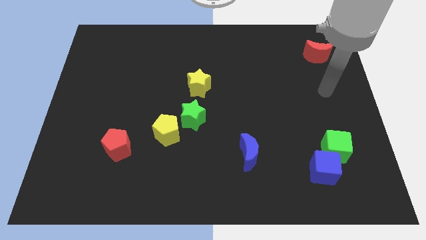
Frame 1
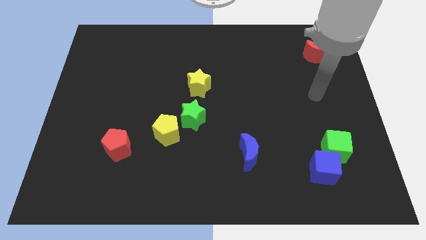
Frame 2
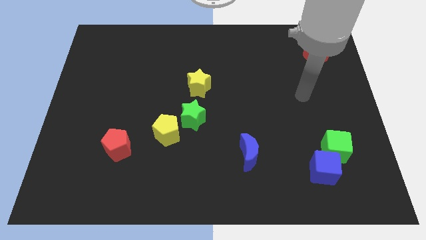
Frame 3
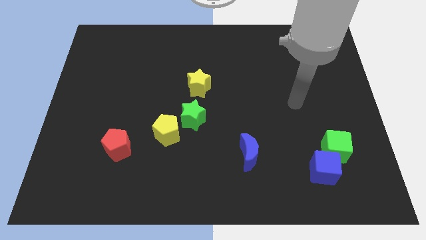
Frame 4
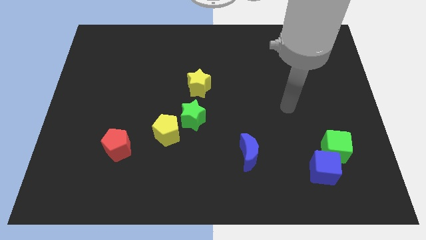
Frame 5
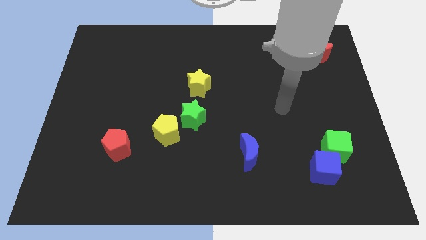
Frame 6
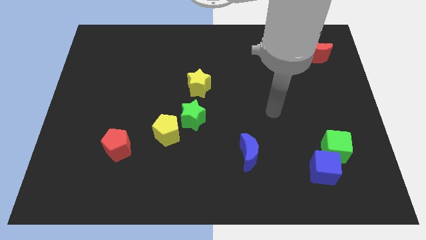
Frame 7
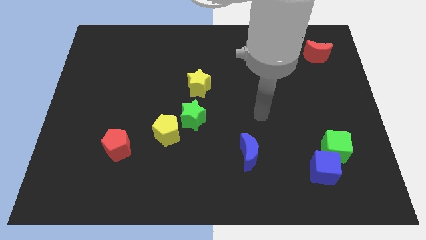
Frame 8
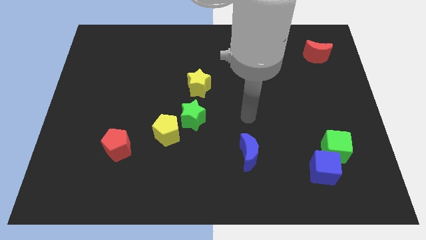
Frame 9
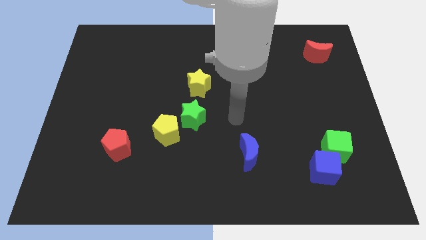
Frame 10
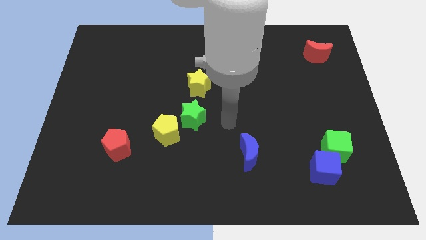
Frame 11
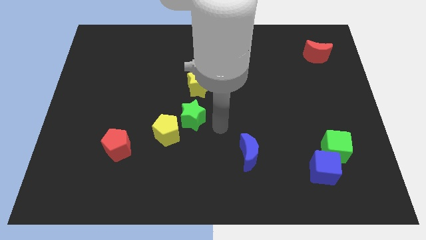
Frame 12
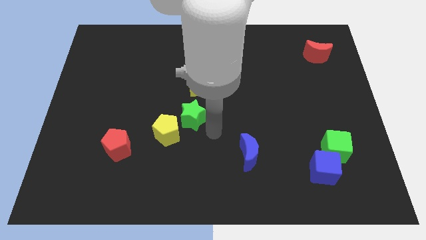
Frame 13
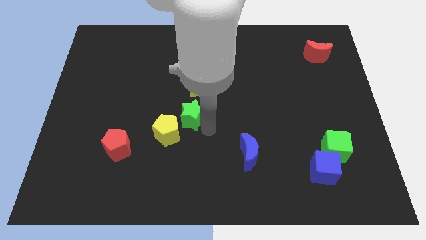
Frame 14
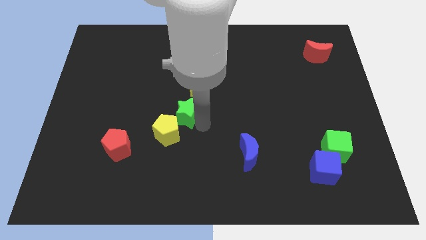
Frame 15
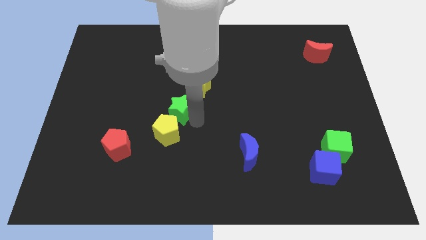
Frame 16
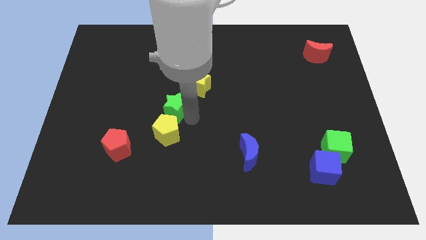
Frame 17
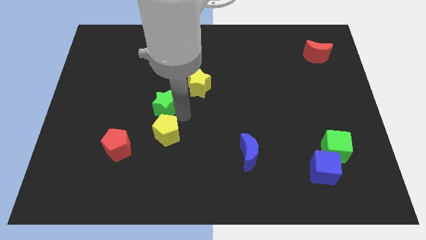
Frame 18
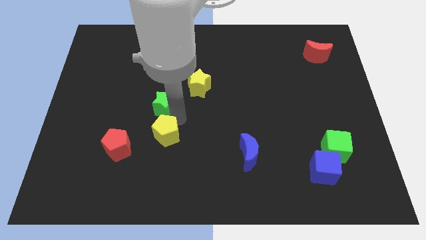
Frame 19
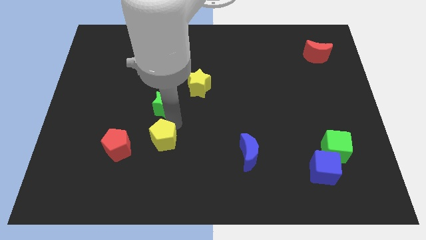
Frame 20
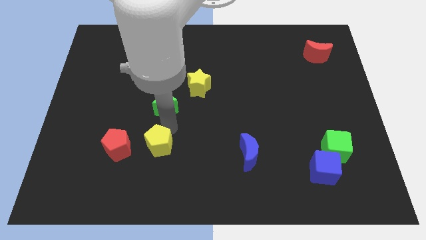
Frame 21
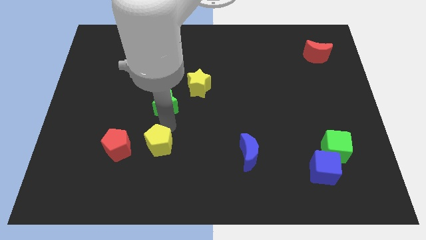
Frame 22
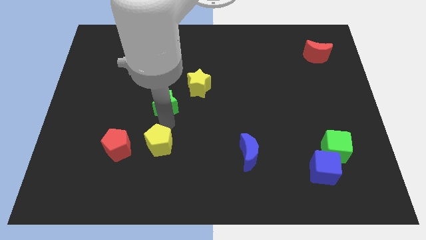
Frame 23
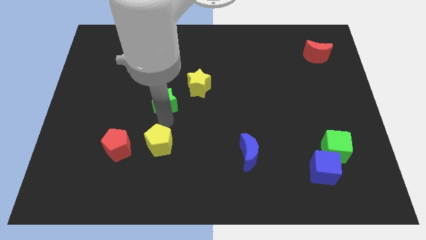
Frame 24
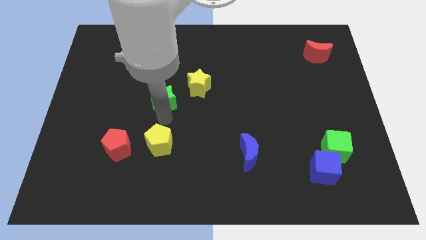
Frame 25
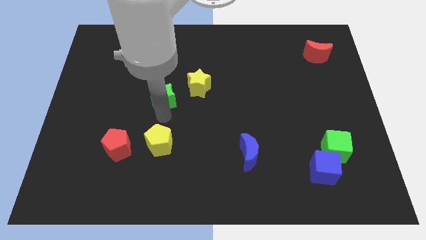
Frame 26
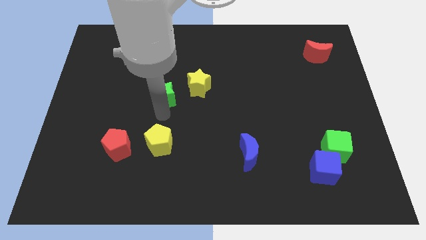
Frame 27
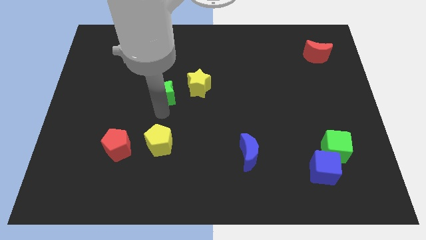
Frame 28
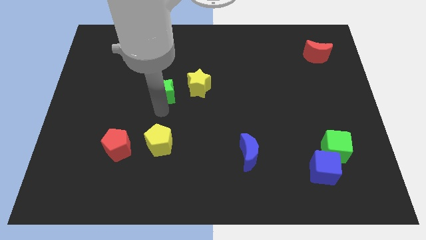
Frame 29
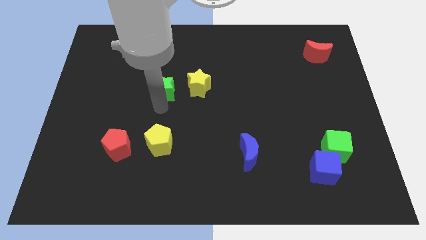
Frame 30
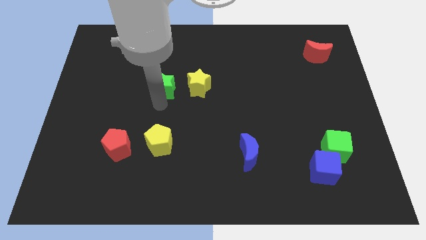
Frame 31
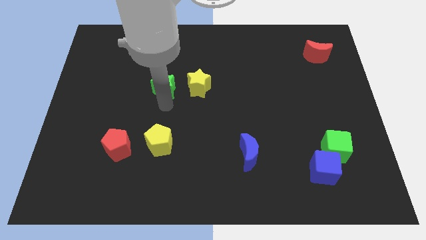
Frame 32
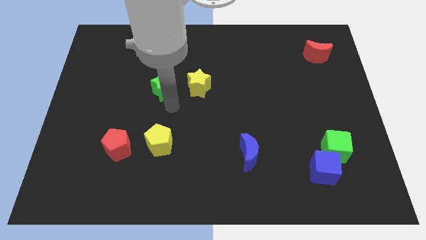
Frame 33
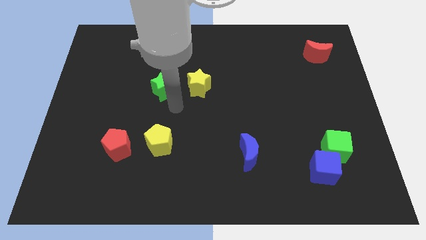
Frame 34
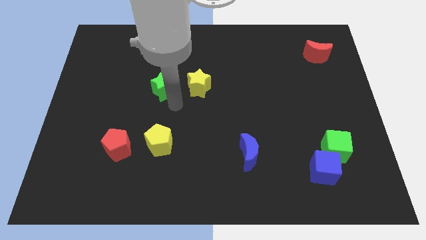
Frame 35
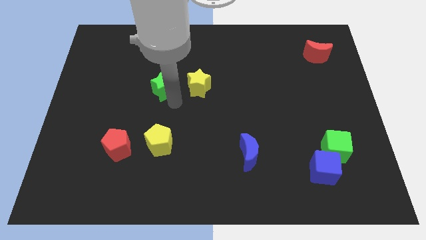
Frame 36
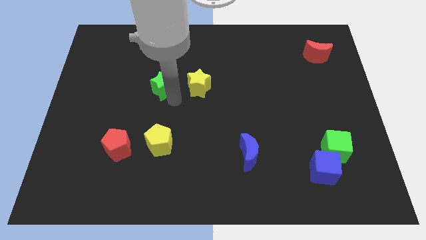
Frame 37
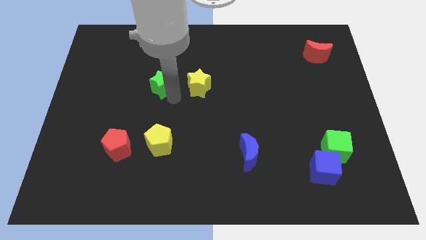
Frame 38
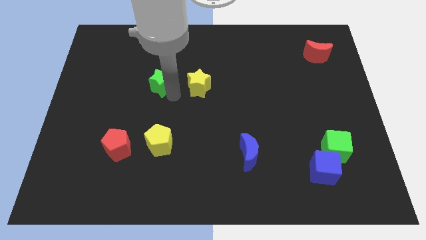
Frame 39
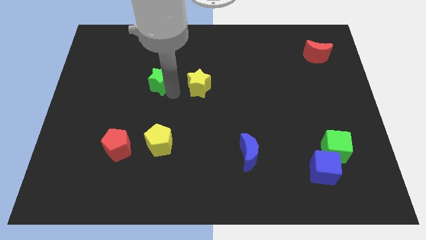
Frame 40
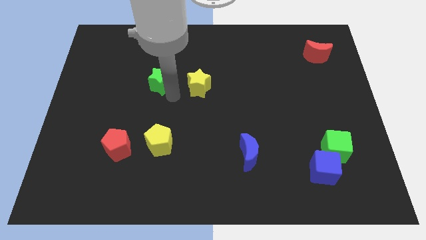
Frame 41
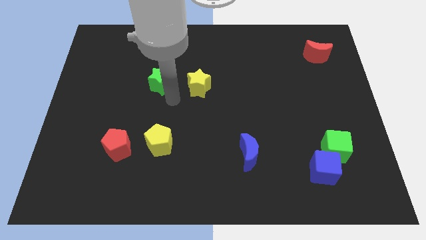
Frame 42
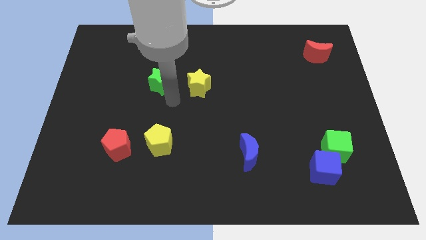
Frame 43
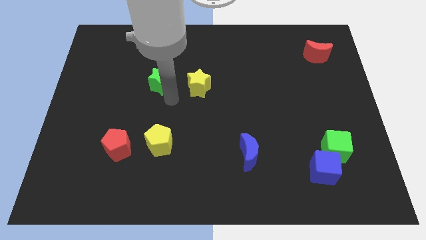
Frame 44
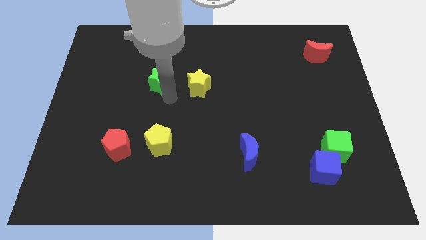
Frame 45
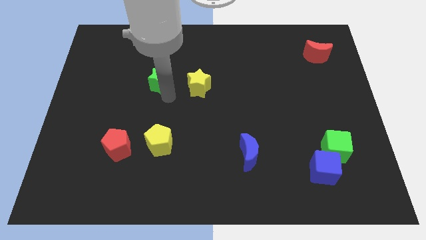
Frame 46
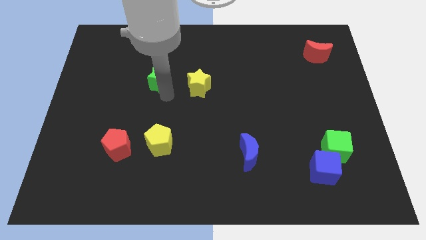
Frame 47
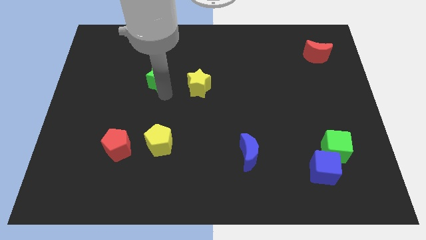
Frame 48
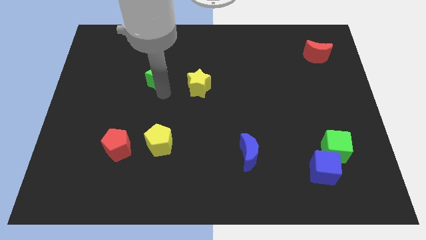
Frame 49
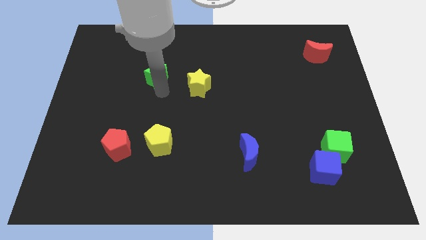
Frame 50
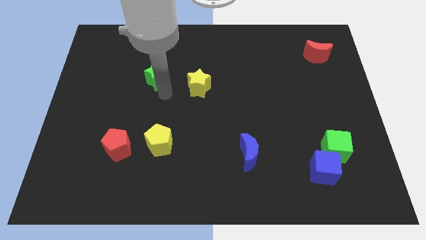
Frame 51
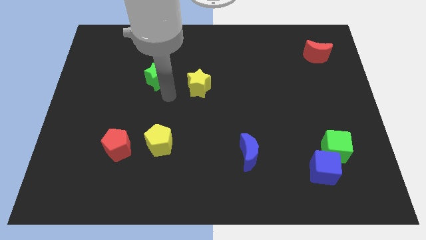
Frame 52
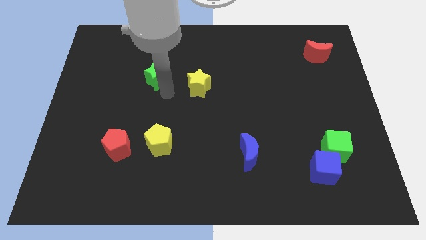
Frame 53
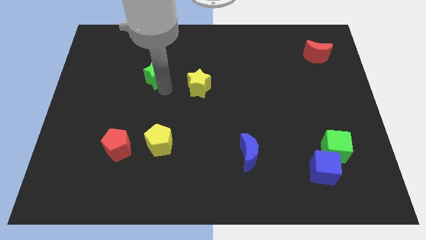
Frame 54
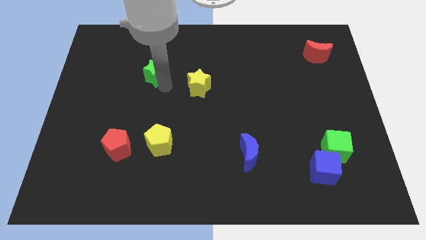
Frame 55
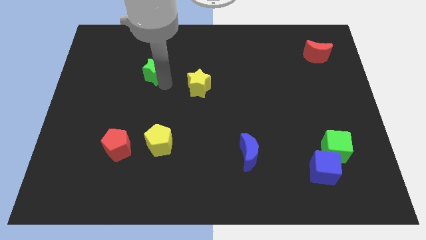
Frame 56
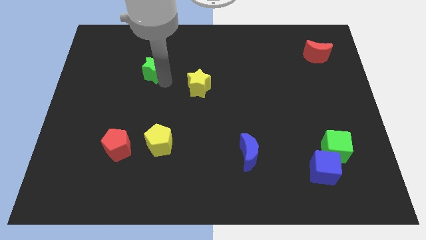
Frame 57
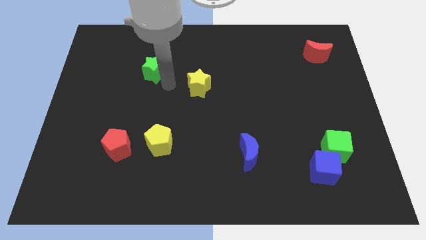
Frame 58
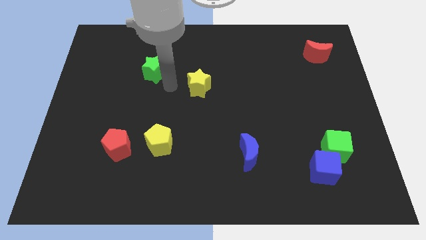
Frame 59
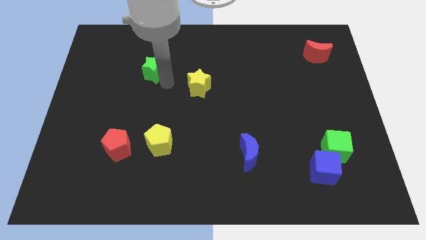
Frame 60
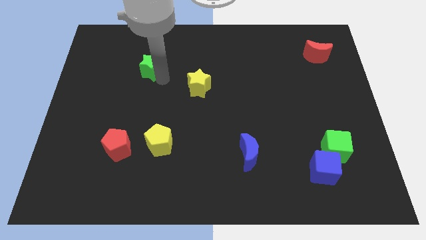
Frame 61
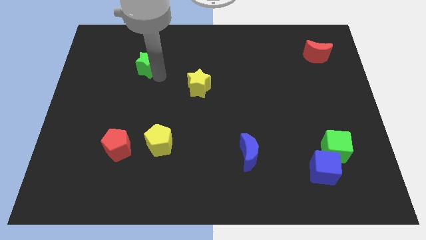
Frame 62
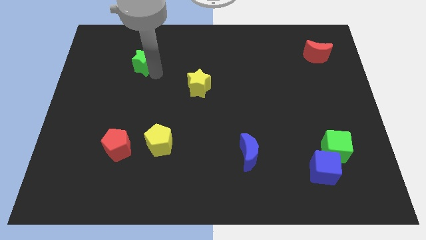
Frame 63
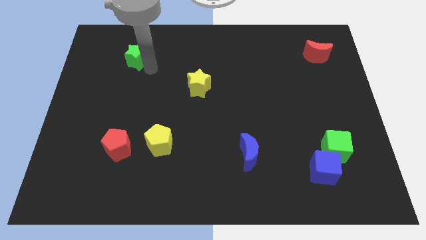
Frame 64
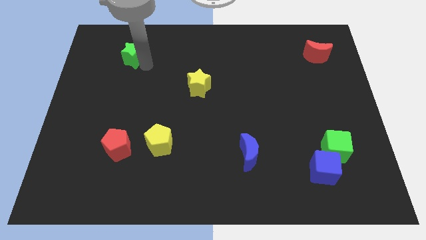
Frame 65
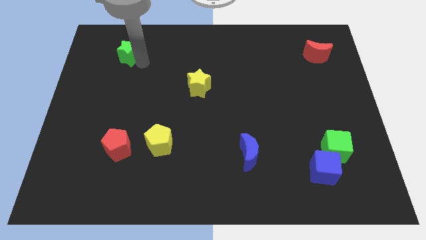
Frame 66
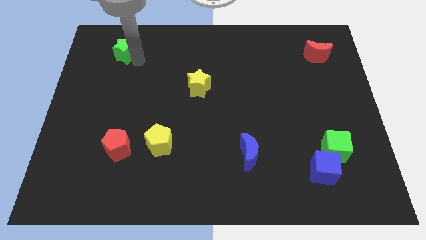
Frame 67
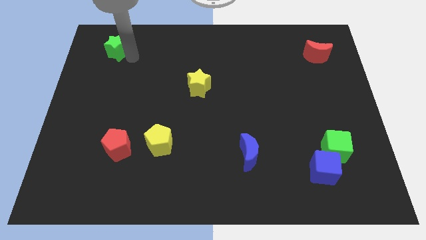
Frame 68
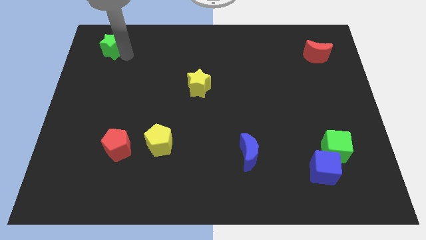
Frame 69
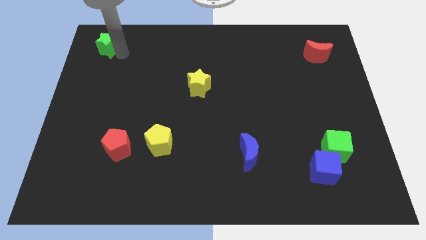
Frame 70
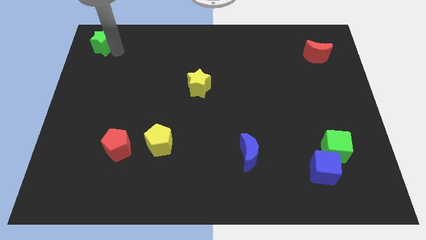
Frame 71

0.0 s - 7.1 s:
move the green star to the top left
